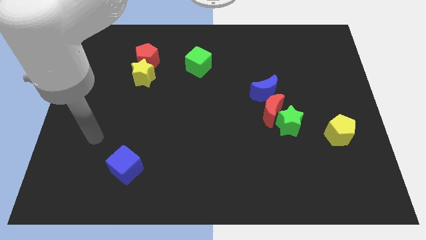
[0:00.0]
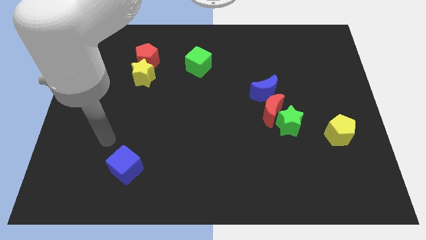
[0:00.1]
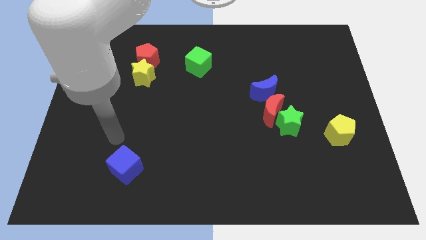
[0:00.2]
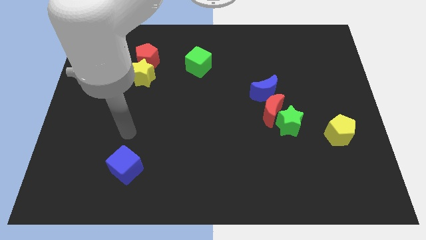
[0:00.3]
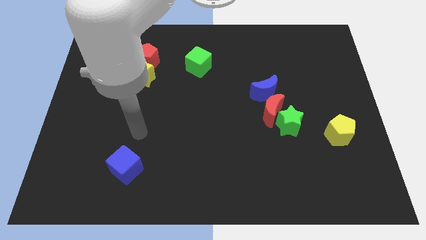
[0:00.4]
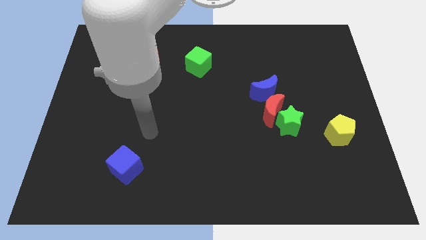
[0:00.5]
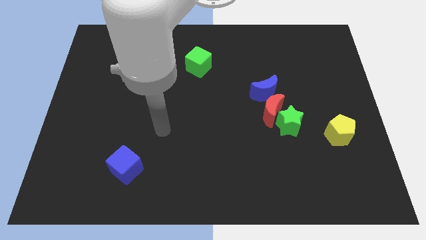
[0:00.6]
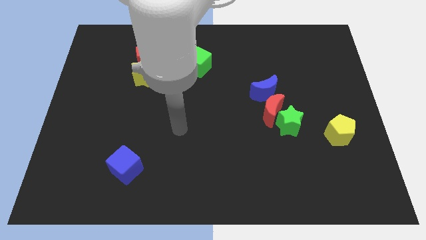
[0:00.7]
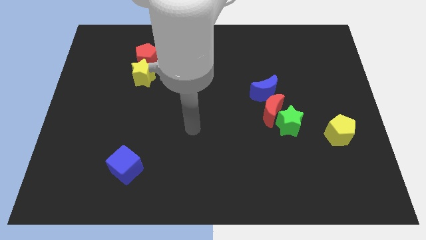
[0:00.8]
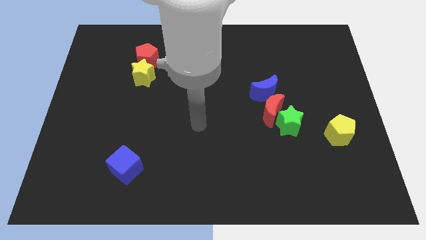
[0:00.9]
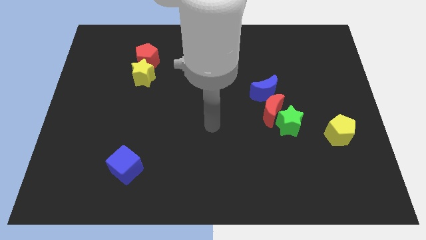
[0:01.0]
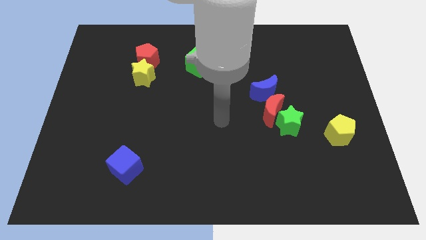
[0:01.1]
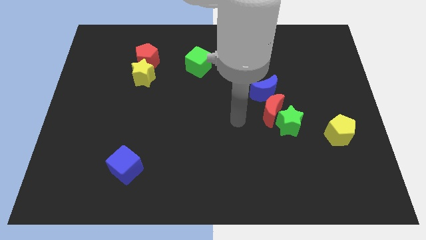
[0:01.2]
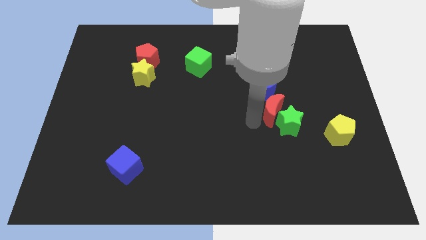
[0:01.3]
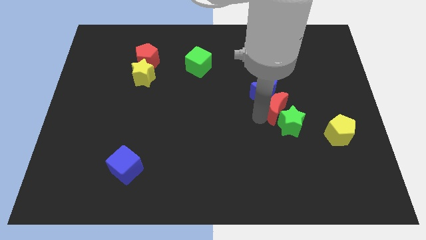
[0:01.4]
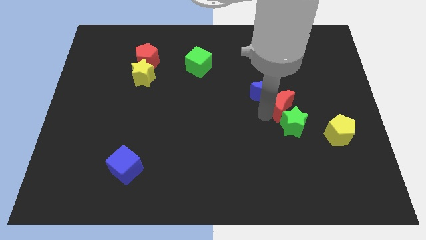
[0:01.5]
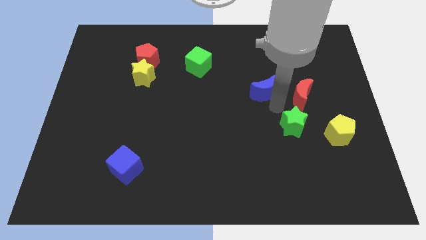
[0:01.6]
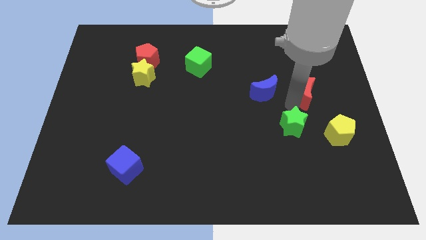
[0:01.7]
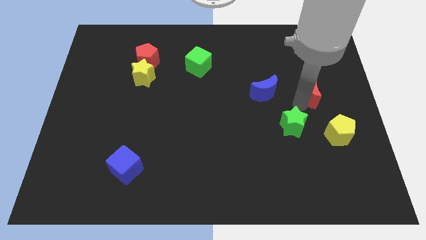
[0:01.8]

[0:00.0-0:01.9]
move the green star away from the red moon

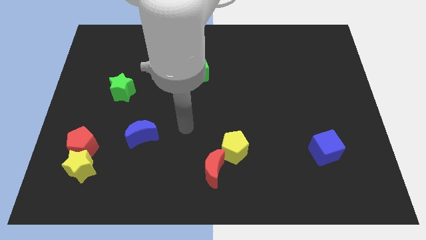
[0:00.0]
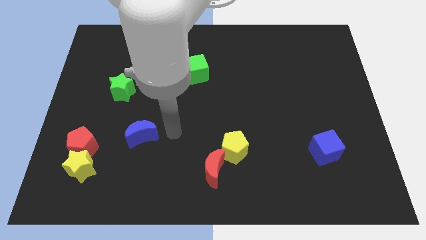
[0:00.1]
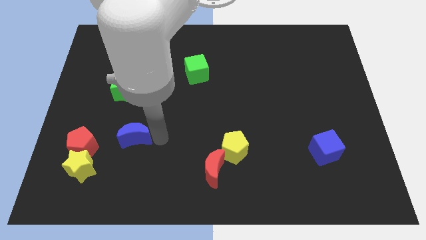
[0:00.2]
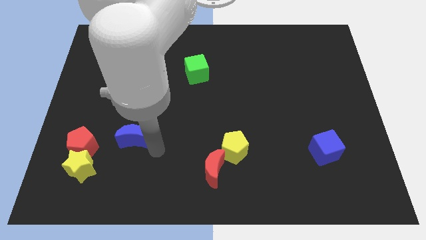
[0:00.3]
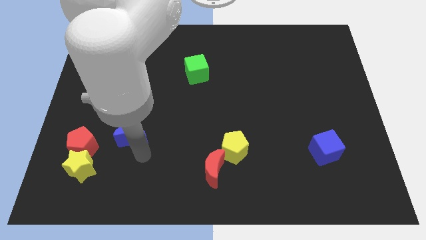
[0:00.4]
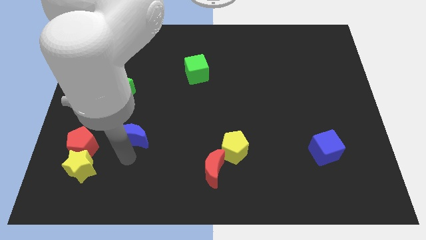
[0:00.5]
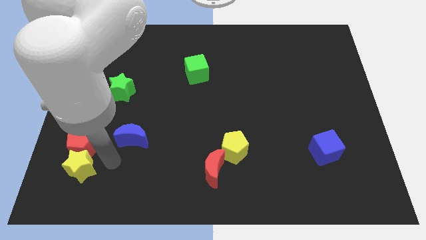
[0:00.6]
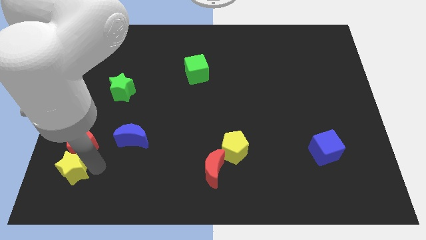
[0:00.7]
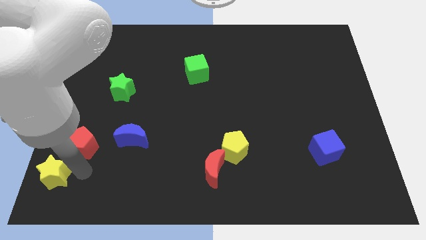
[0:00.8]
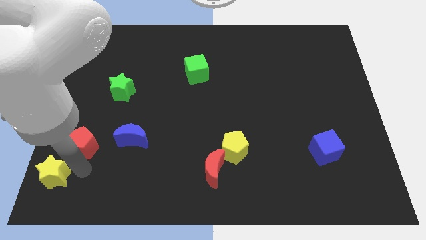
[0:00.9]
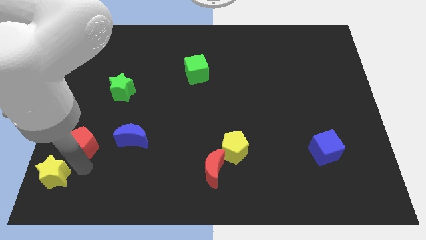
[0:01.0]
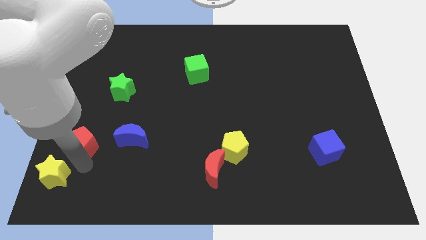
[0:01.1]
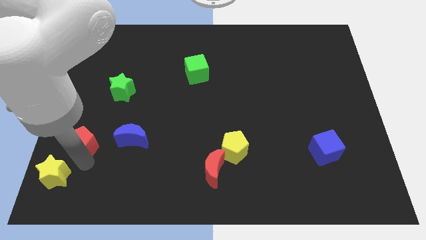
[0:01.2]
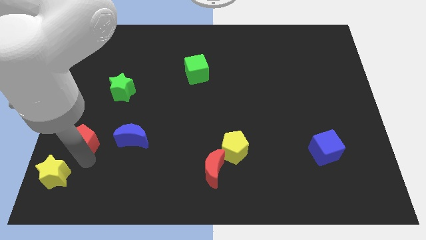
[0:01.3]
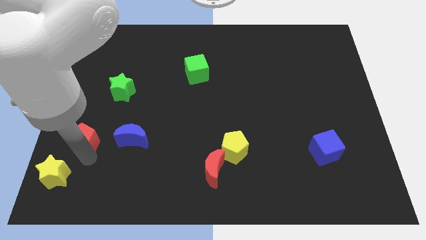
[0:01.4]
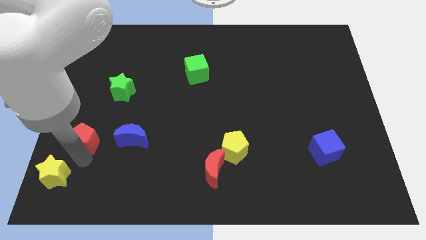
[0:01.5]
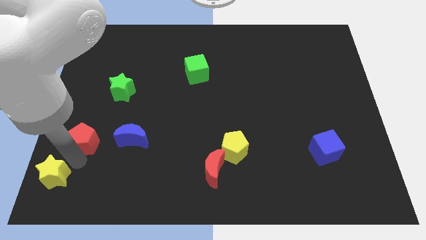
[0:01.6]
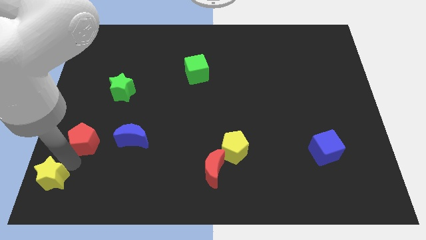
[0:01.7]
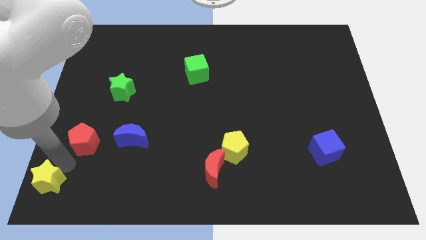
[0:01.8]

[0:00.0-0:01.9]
move the red pentagon away from the yellow star

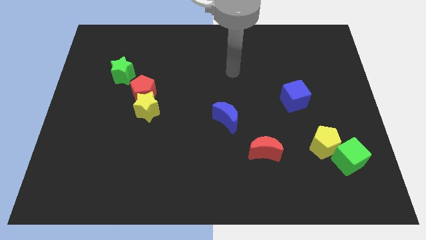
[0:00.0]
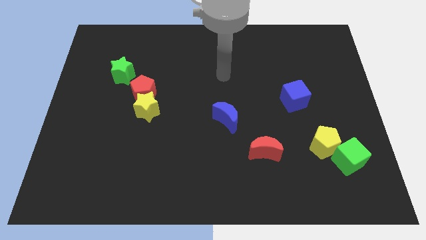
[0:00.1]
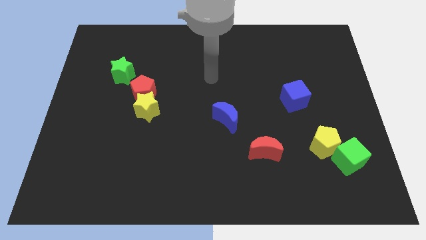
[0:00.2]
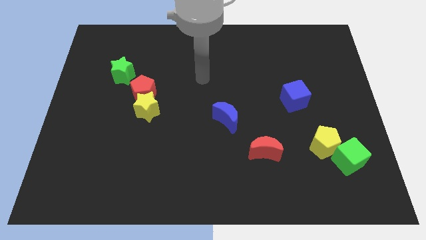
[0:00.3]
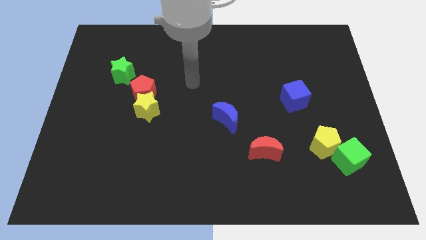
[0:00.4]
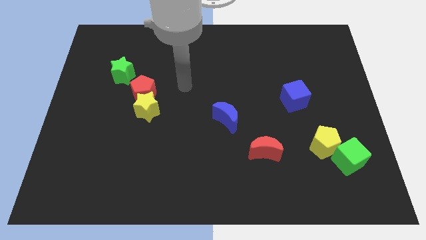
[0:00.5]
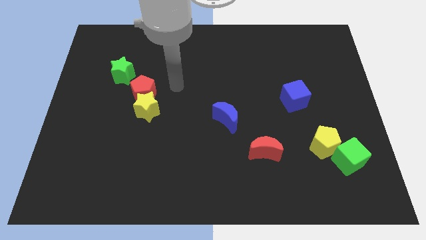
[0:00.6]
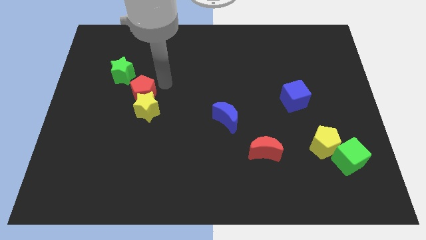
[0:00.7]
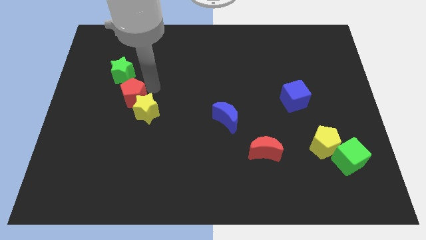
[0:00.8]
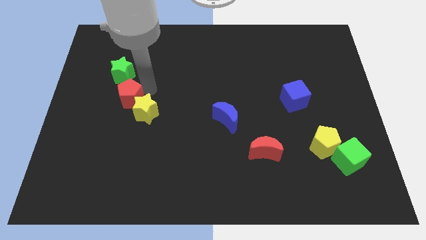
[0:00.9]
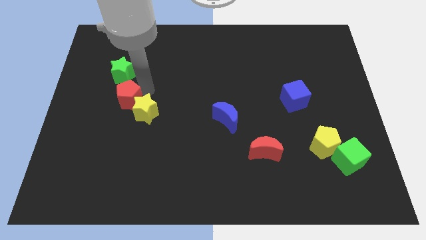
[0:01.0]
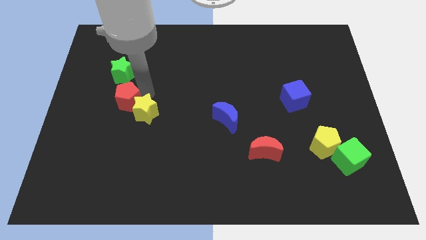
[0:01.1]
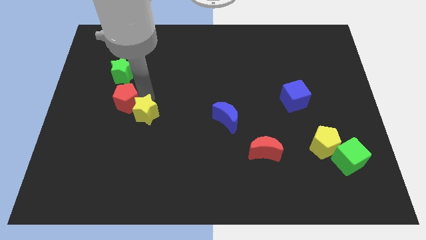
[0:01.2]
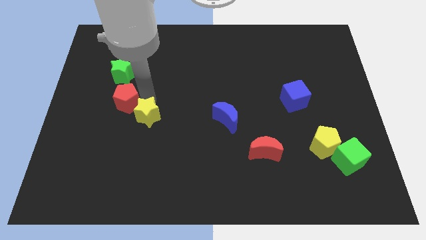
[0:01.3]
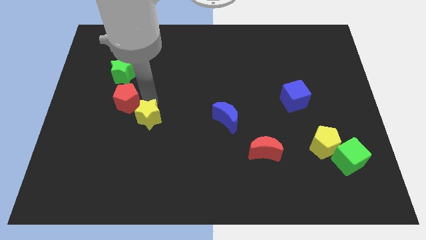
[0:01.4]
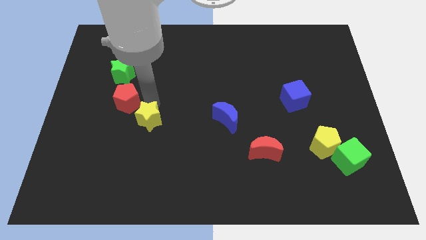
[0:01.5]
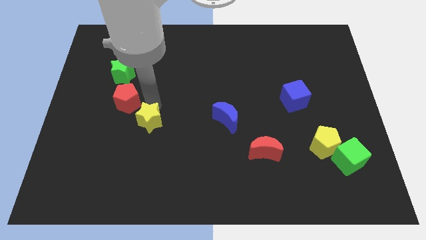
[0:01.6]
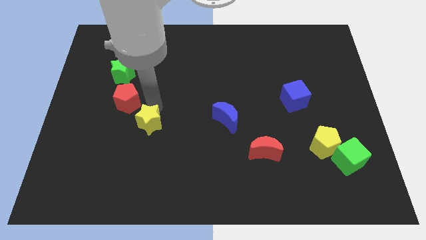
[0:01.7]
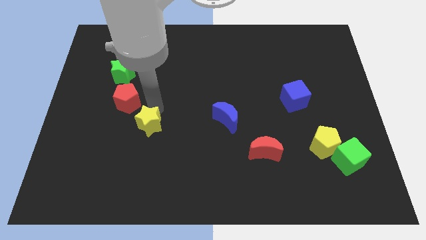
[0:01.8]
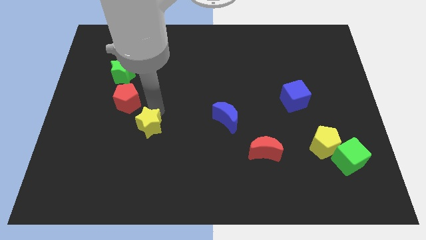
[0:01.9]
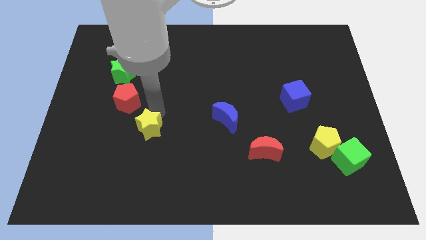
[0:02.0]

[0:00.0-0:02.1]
pull the yellow star apart from the red pentagon

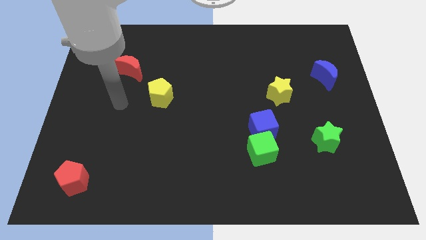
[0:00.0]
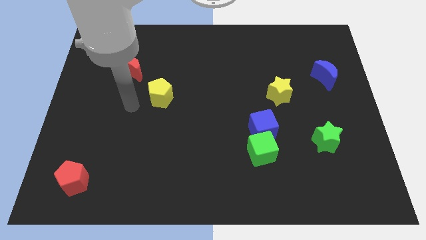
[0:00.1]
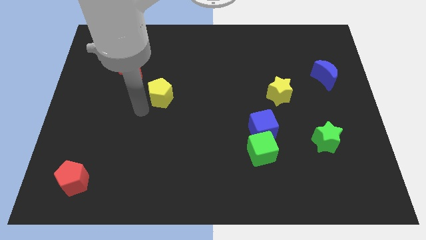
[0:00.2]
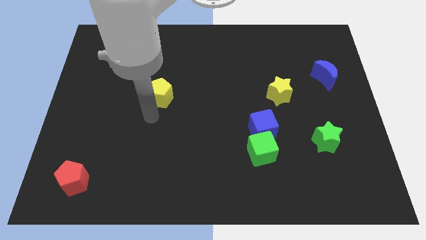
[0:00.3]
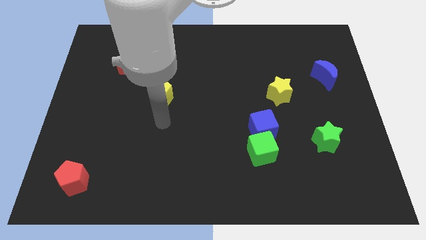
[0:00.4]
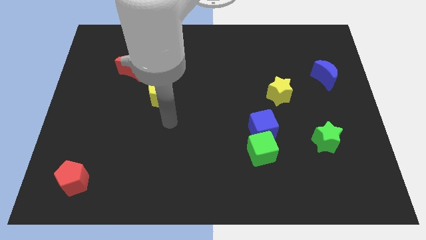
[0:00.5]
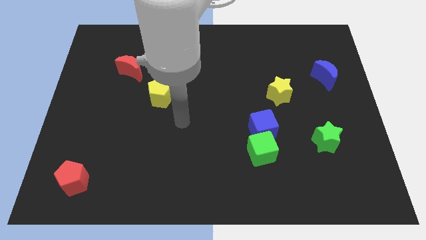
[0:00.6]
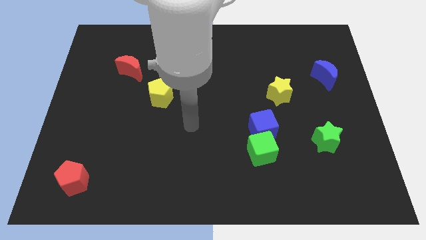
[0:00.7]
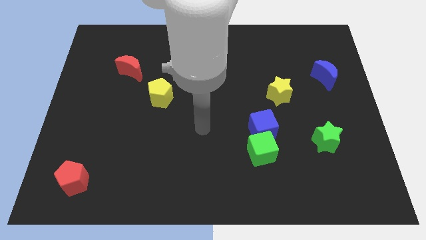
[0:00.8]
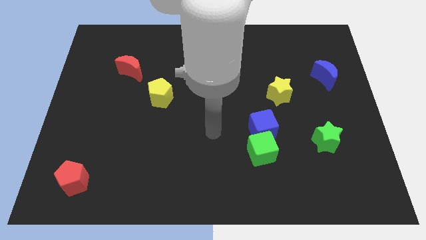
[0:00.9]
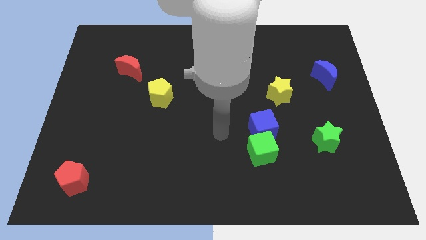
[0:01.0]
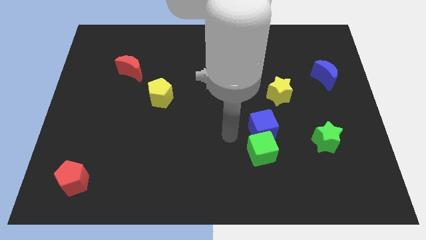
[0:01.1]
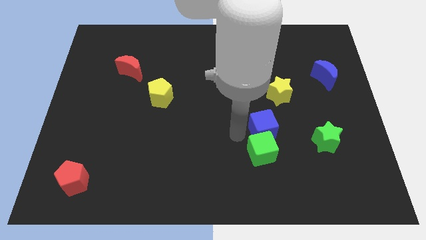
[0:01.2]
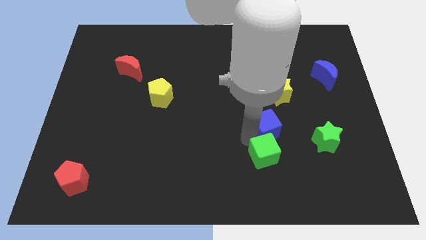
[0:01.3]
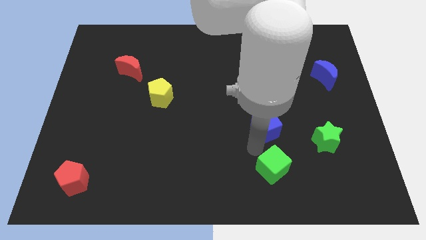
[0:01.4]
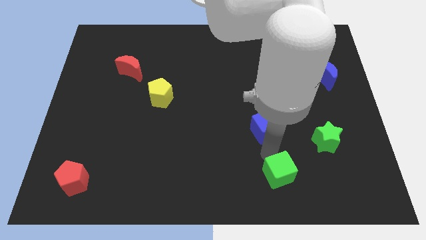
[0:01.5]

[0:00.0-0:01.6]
pull the blue cube apart from the green cube

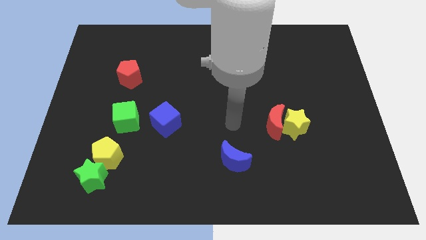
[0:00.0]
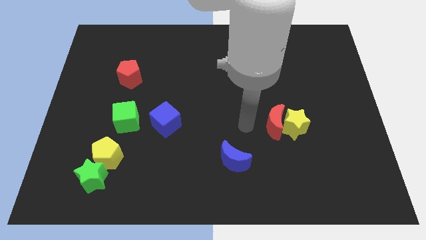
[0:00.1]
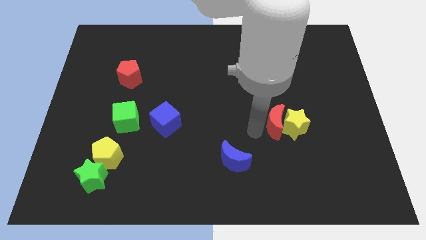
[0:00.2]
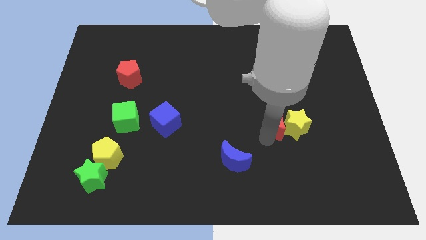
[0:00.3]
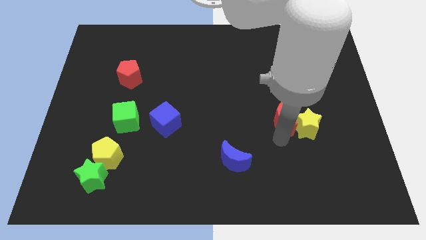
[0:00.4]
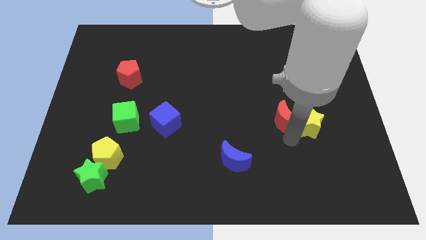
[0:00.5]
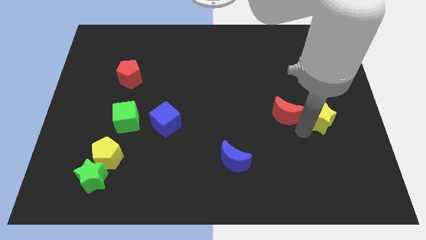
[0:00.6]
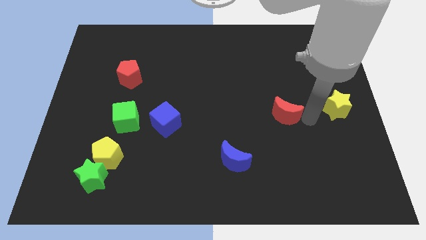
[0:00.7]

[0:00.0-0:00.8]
pull the red moon apart from the yellow star

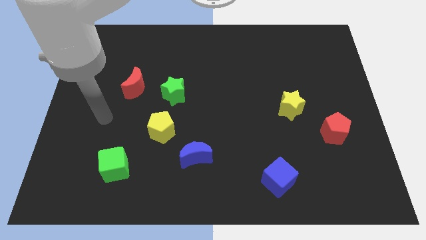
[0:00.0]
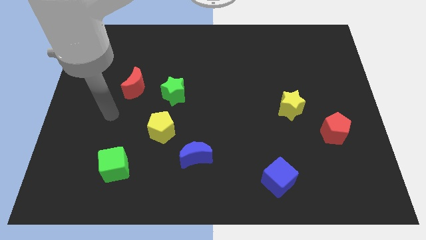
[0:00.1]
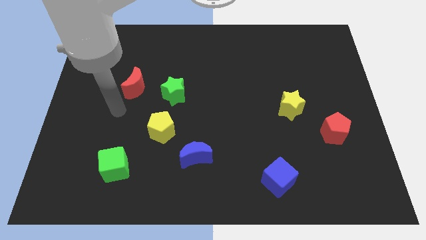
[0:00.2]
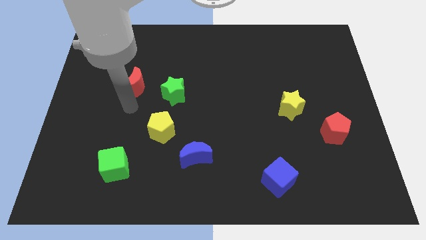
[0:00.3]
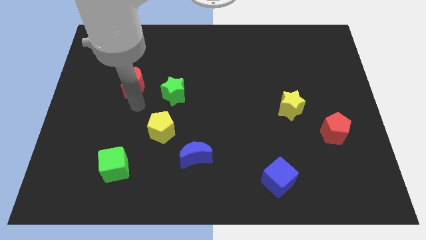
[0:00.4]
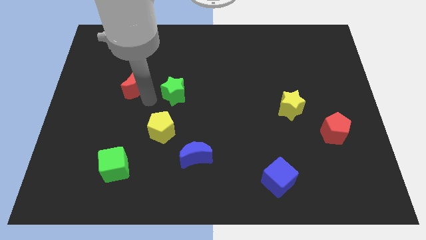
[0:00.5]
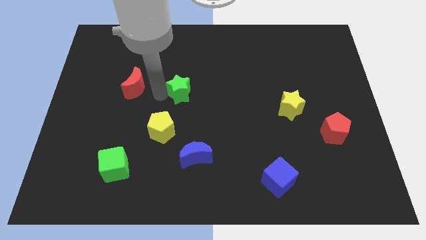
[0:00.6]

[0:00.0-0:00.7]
move the red moon away from the green star

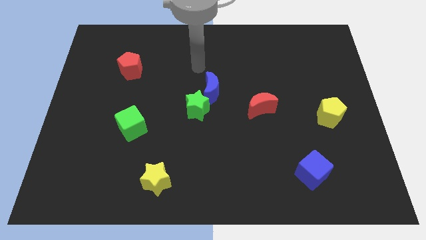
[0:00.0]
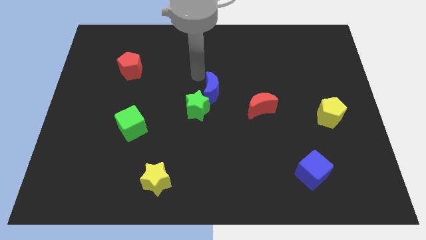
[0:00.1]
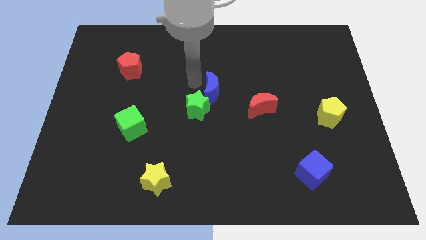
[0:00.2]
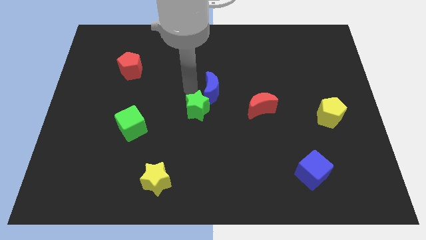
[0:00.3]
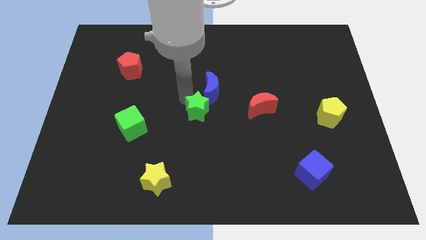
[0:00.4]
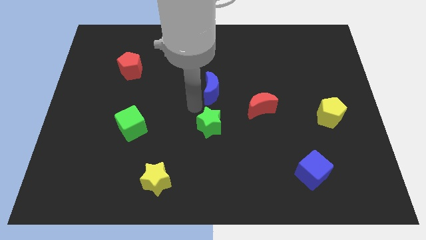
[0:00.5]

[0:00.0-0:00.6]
move the blue moon away from the green star
